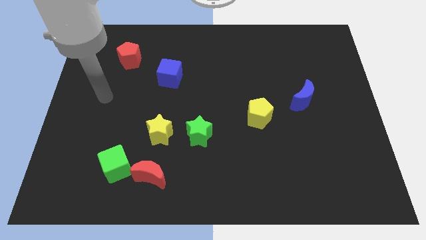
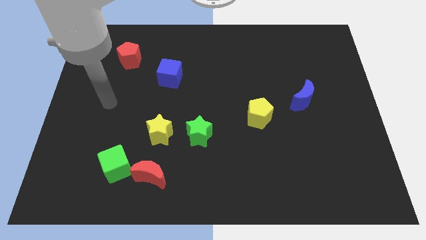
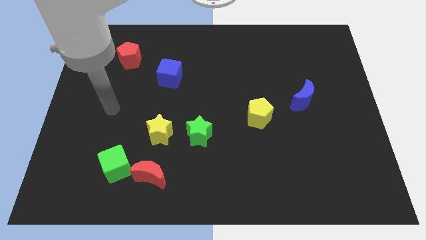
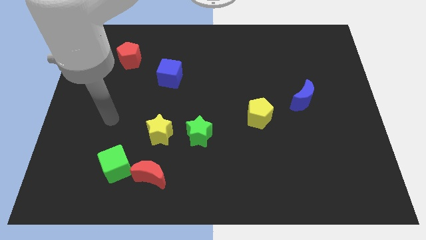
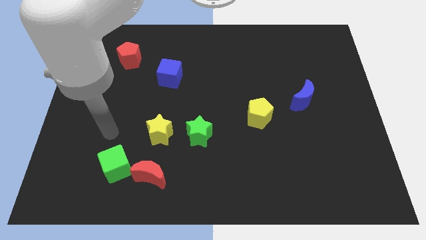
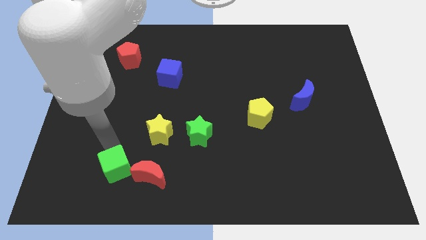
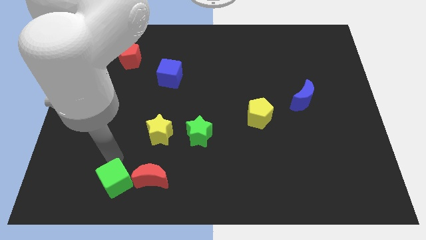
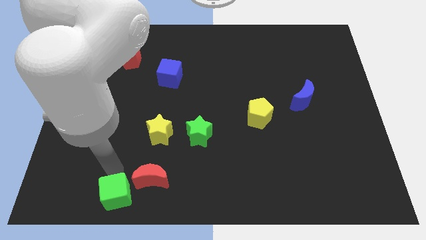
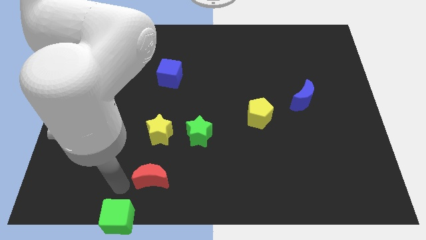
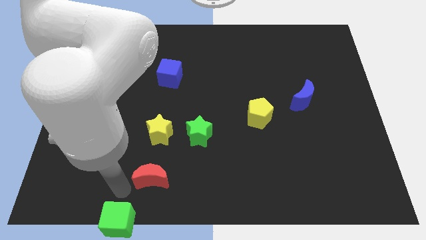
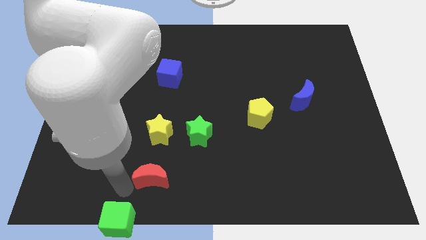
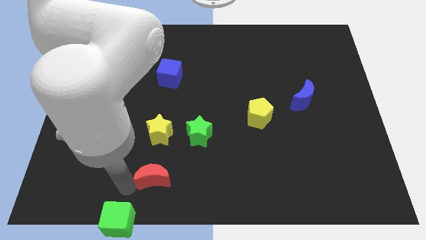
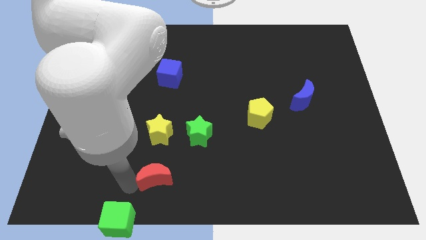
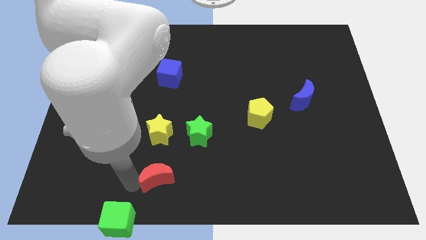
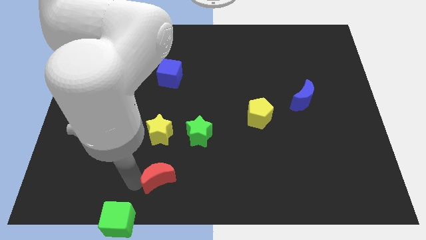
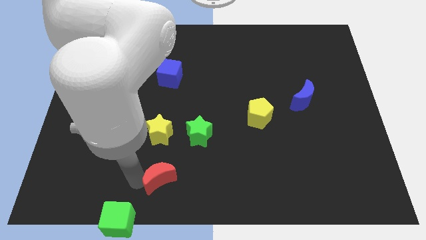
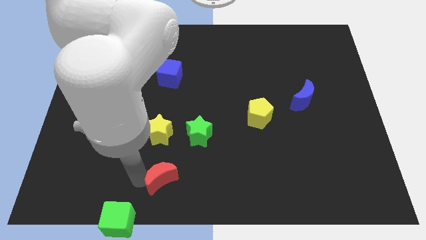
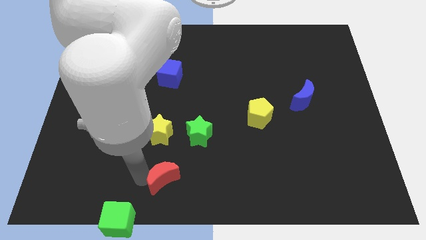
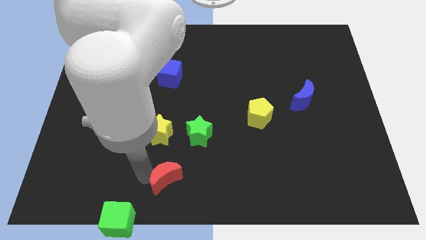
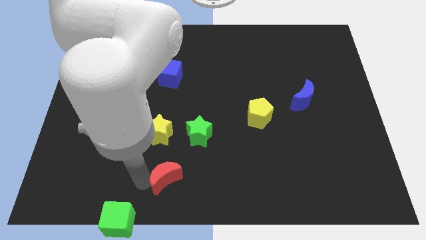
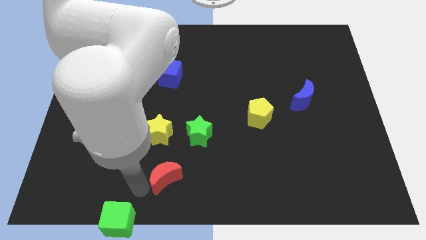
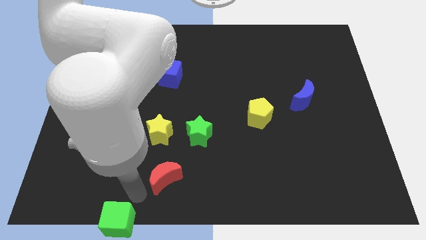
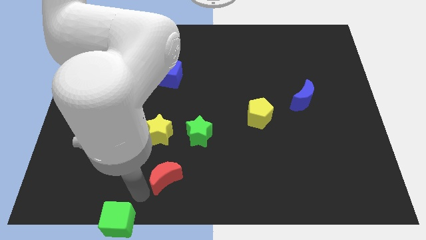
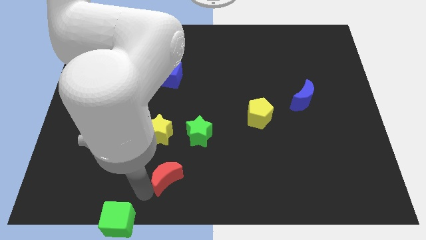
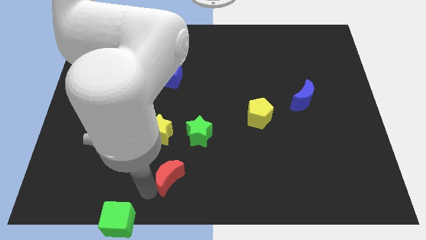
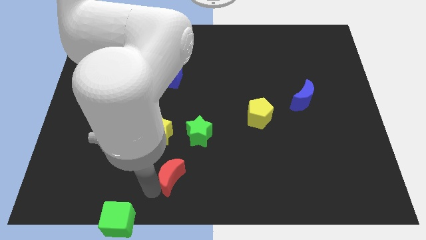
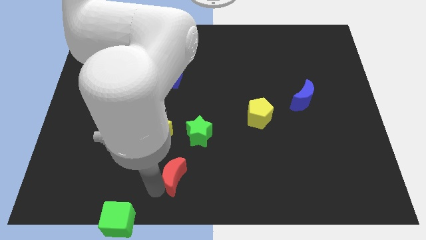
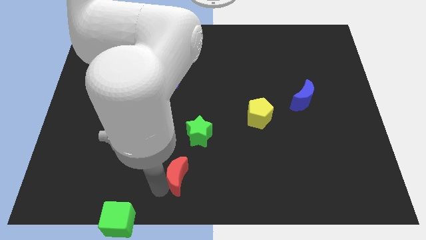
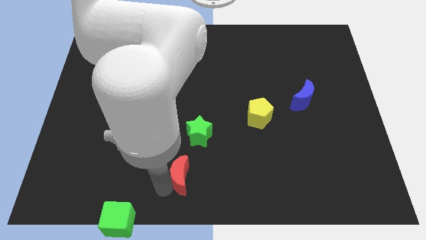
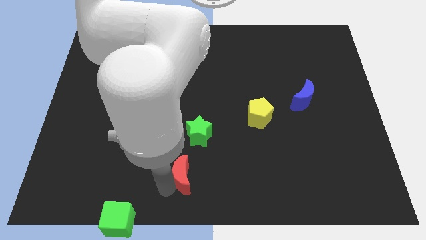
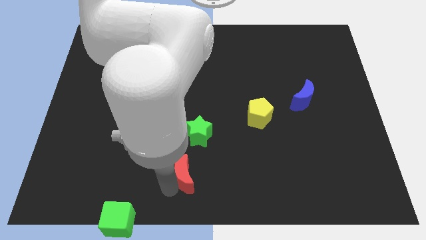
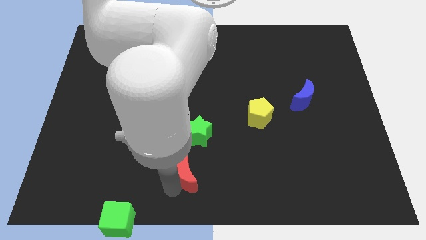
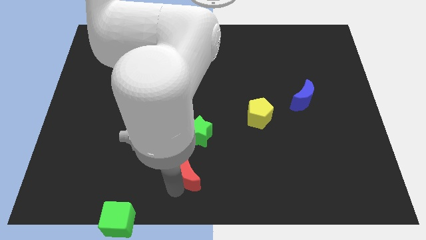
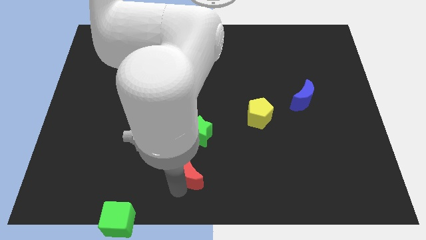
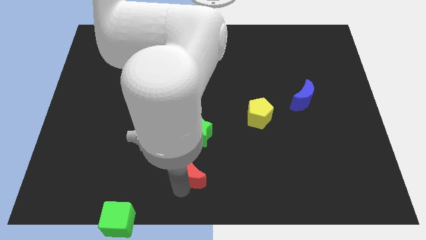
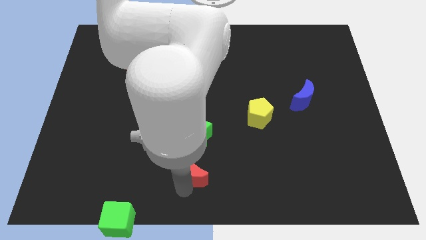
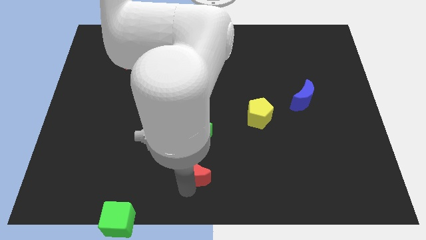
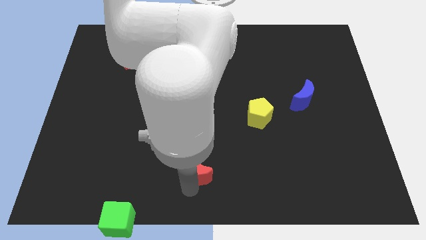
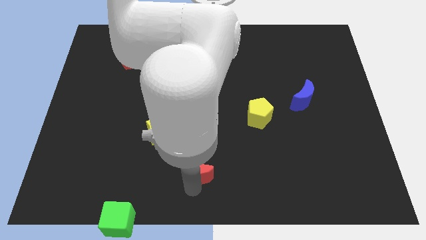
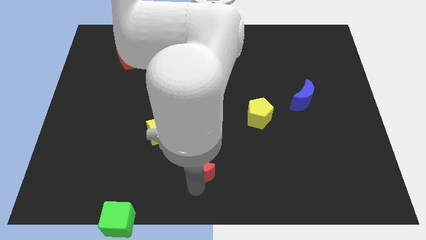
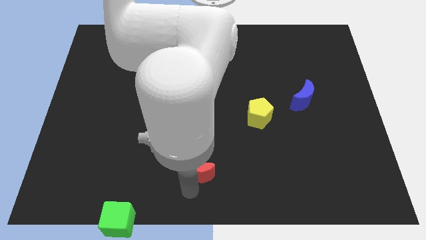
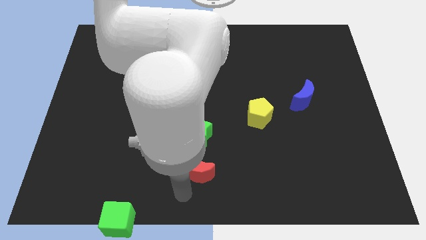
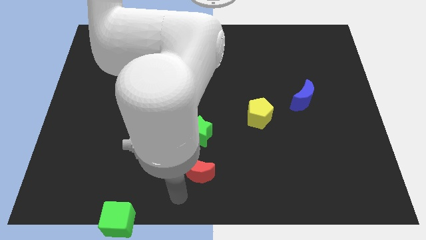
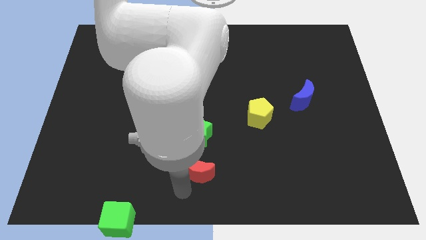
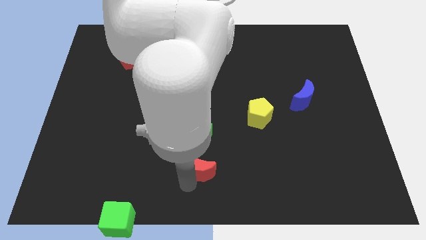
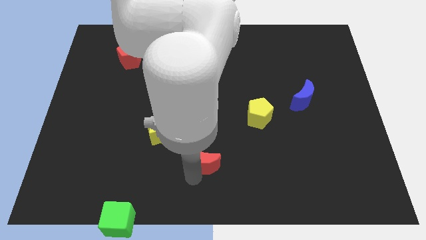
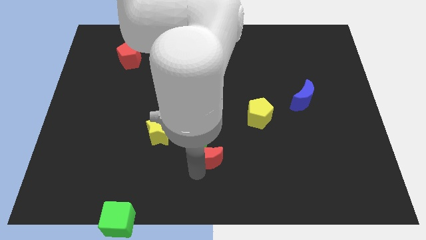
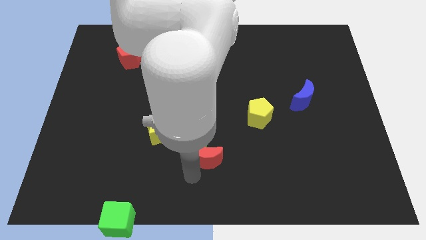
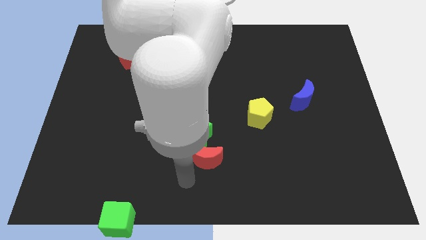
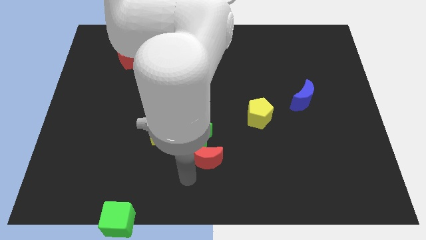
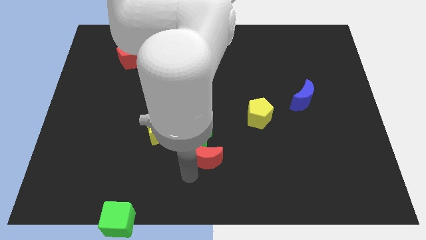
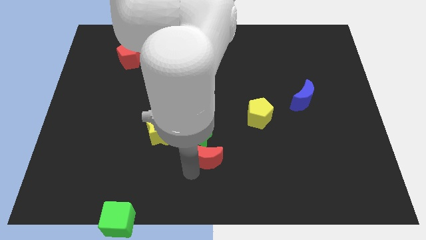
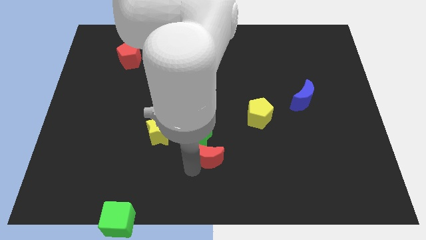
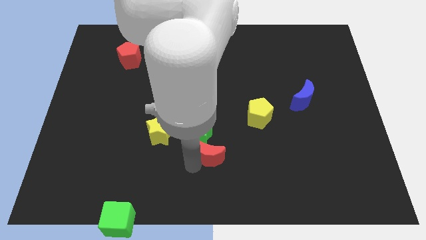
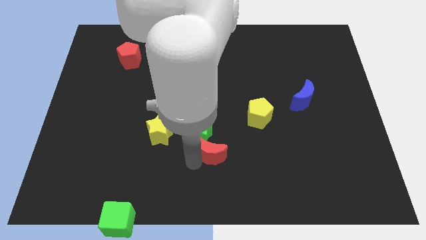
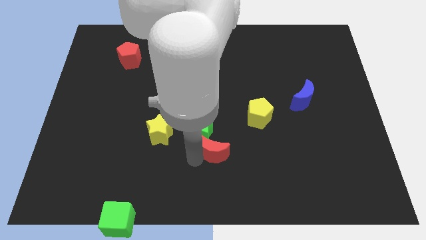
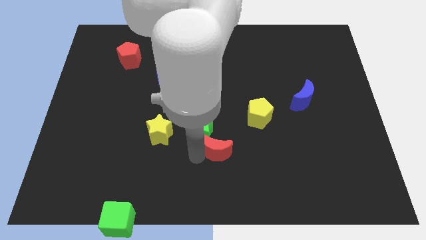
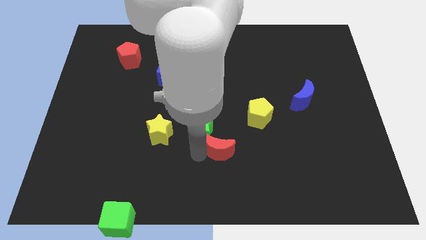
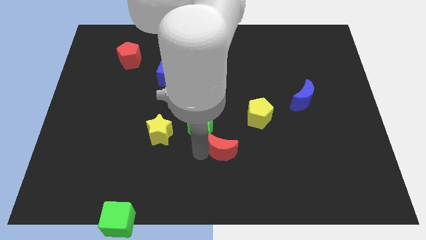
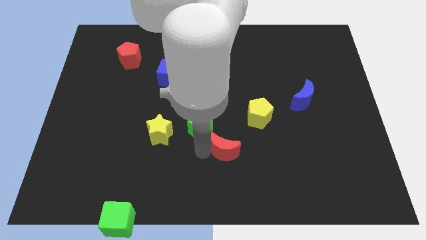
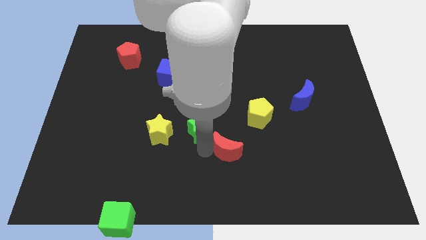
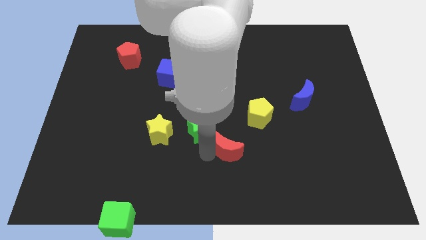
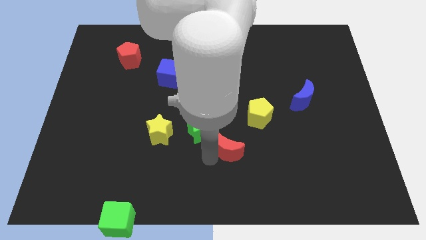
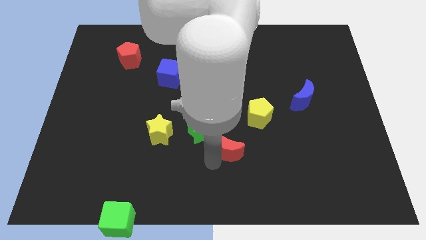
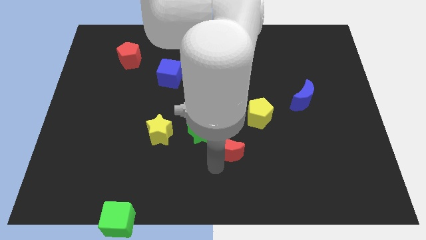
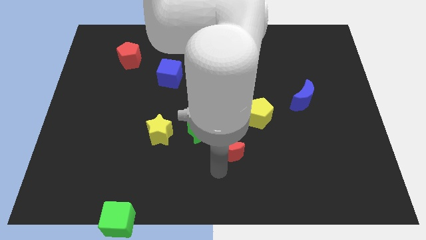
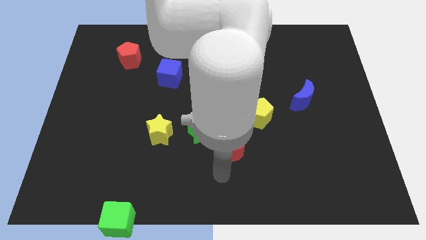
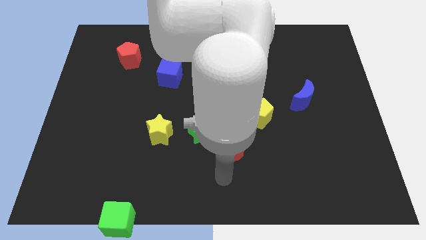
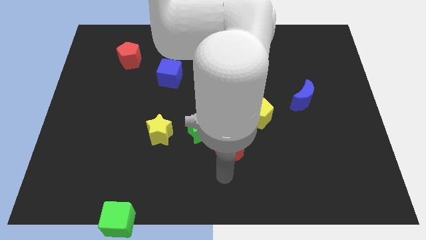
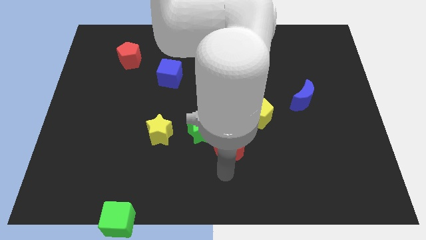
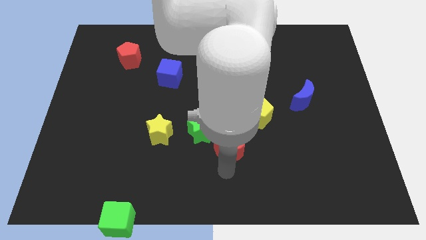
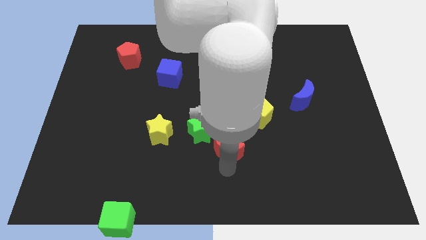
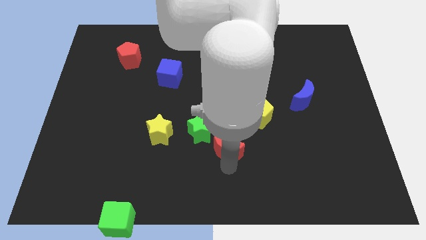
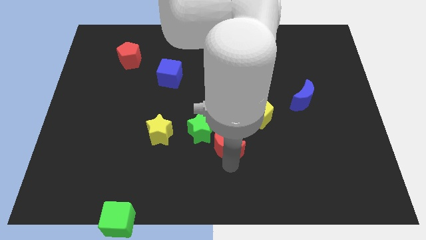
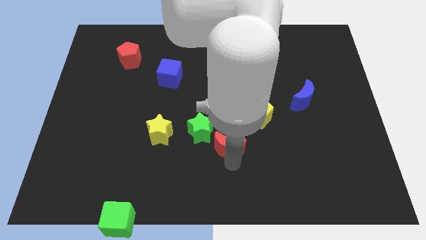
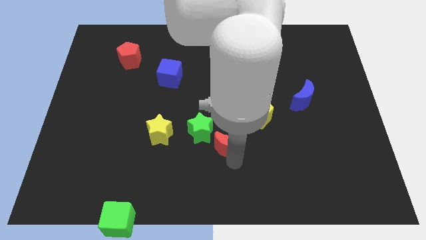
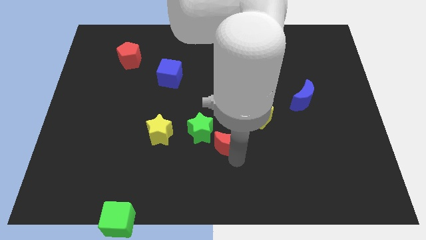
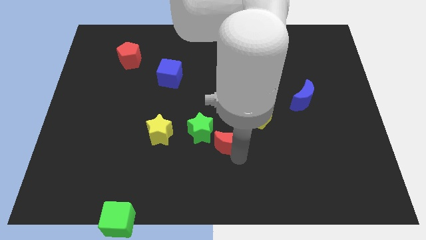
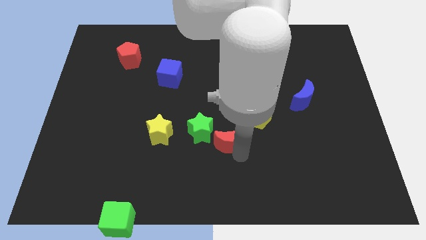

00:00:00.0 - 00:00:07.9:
put the red moon to the middle of the board
